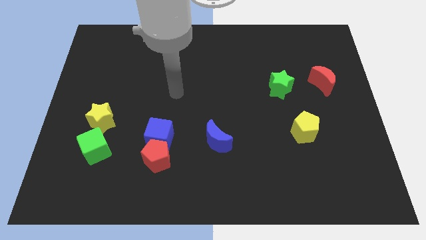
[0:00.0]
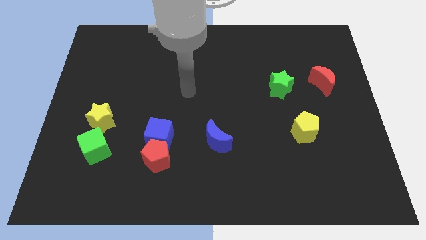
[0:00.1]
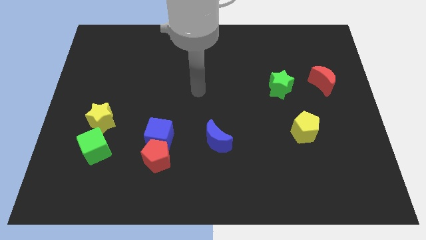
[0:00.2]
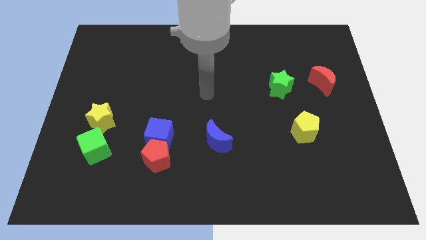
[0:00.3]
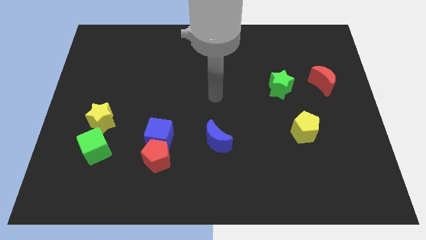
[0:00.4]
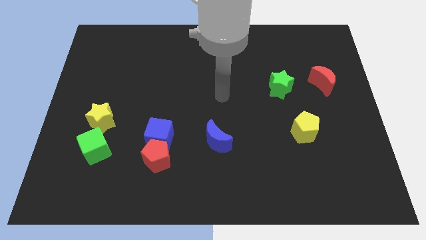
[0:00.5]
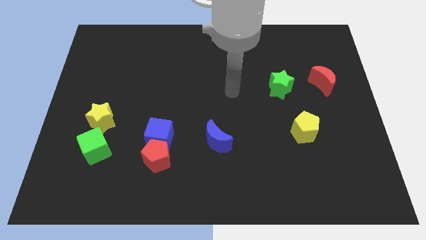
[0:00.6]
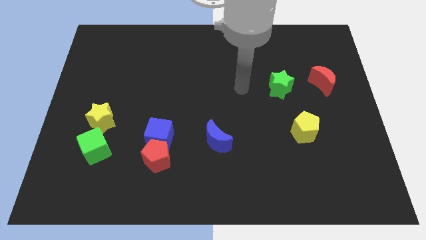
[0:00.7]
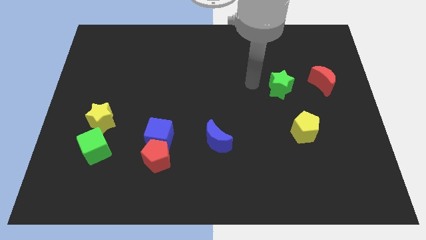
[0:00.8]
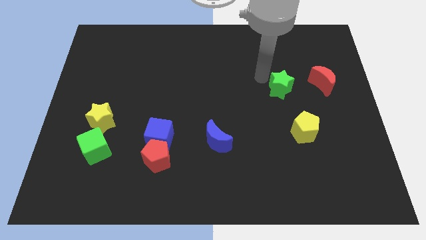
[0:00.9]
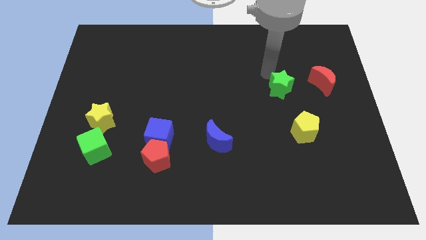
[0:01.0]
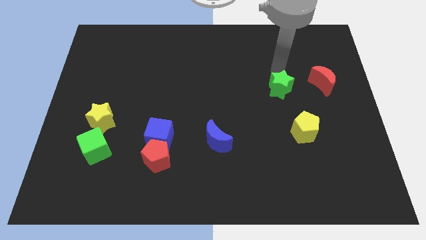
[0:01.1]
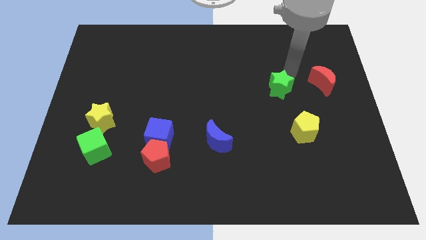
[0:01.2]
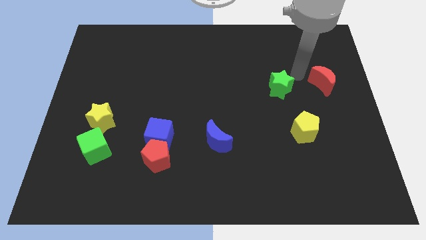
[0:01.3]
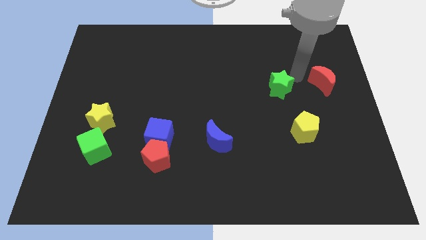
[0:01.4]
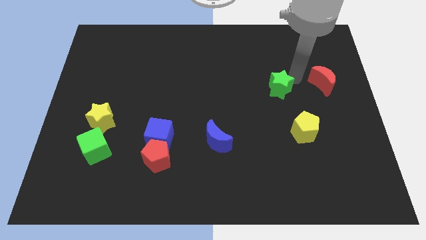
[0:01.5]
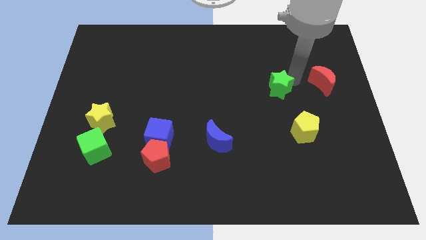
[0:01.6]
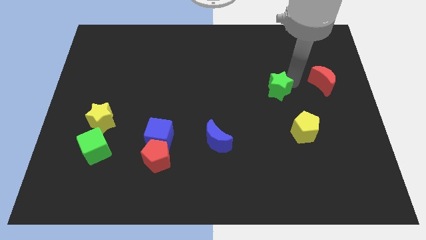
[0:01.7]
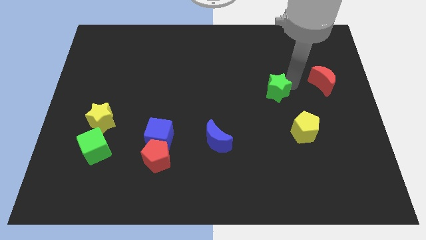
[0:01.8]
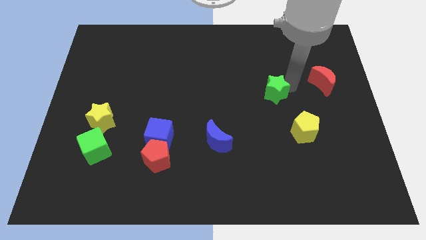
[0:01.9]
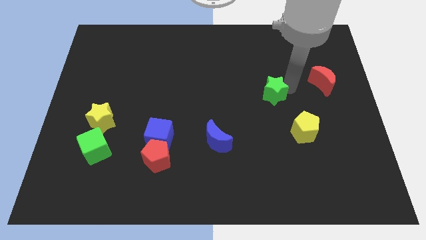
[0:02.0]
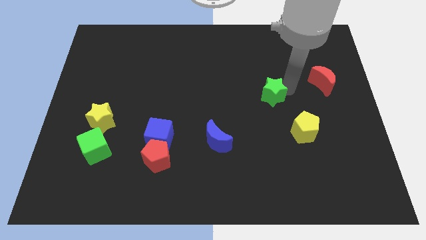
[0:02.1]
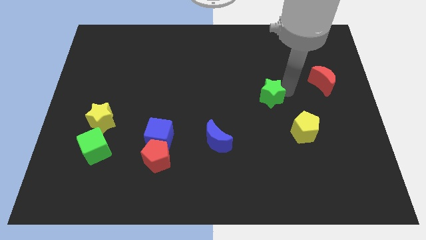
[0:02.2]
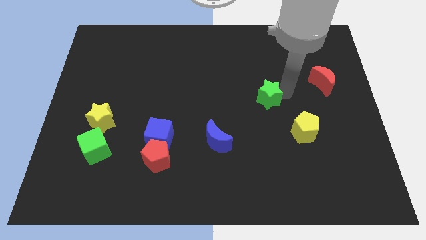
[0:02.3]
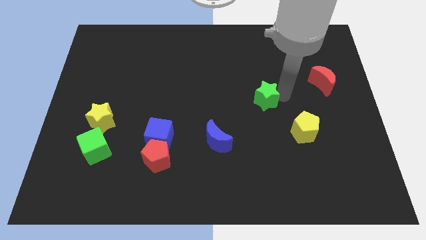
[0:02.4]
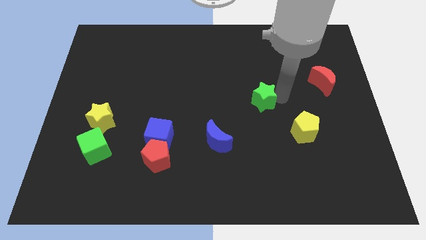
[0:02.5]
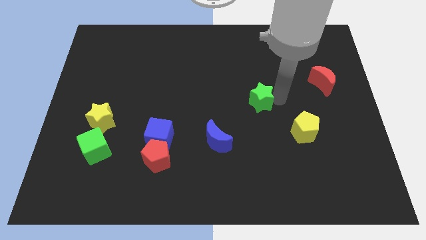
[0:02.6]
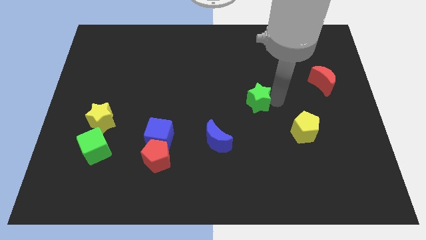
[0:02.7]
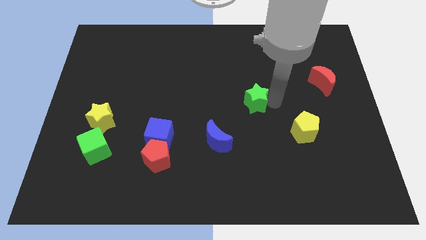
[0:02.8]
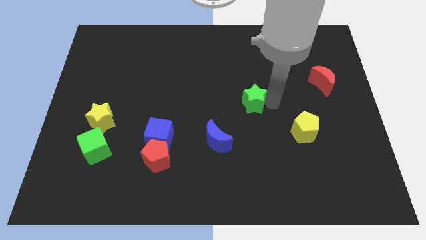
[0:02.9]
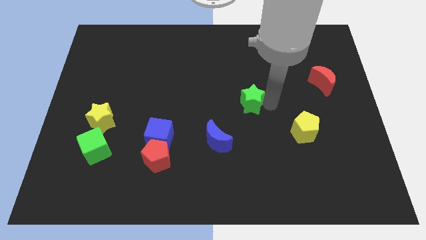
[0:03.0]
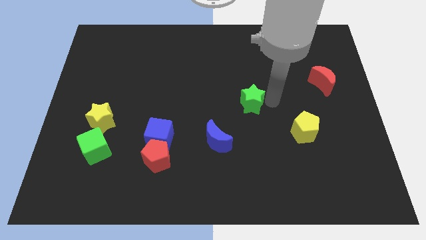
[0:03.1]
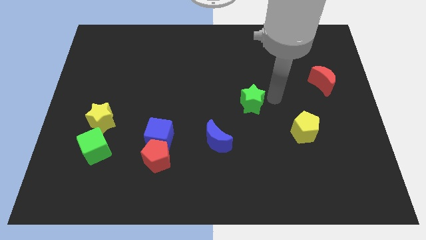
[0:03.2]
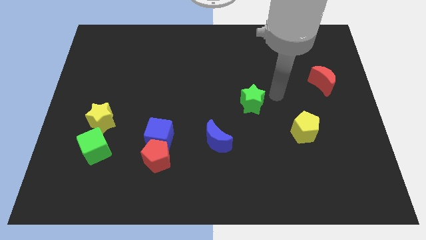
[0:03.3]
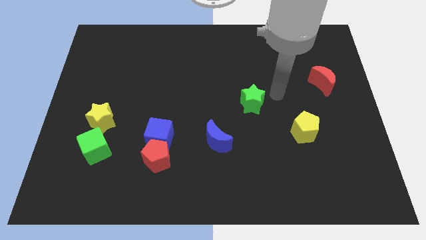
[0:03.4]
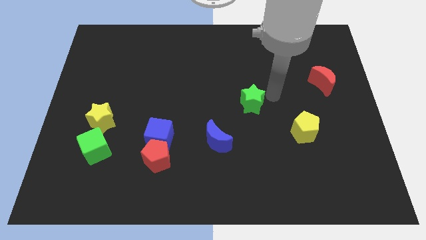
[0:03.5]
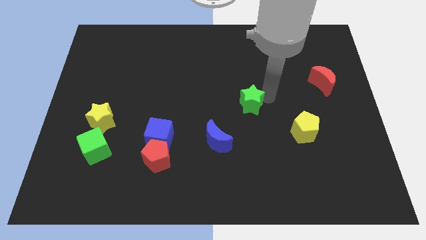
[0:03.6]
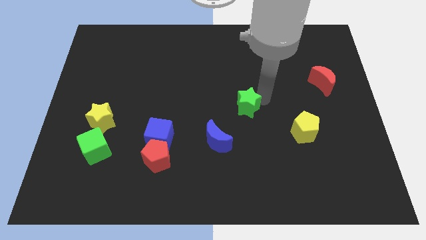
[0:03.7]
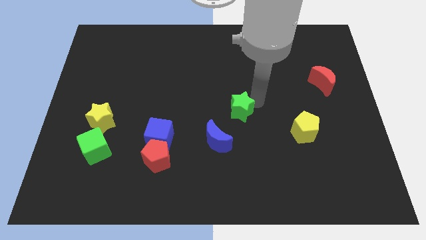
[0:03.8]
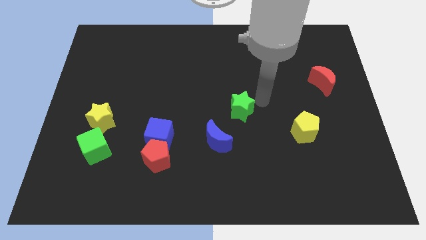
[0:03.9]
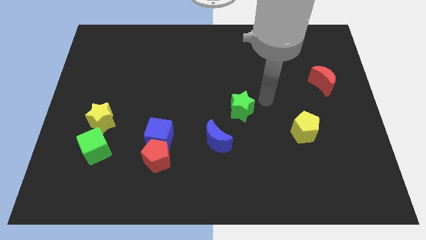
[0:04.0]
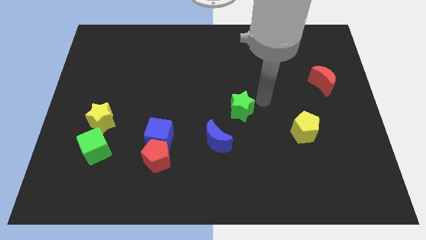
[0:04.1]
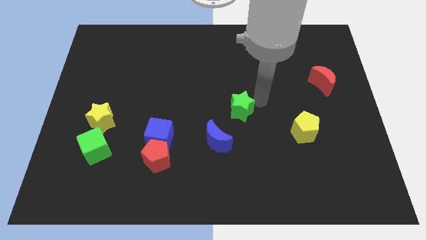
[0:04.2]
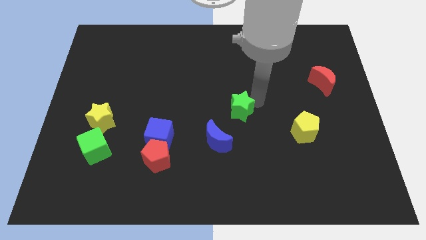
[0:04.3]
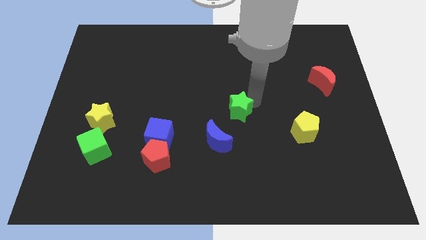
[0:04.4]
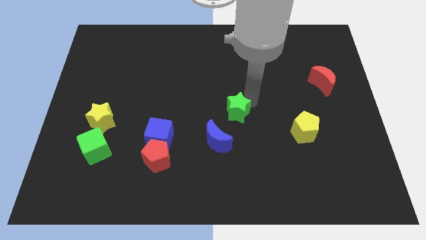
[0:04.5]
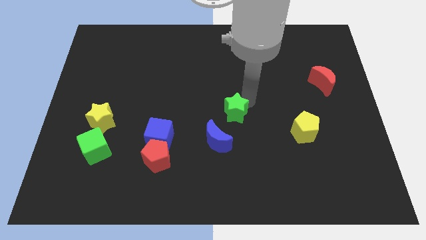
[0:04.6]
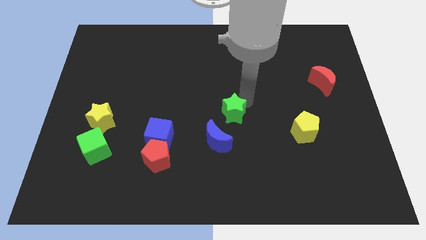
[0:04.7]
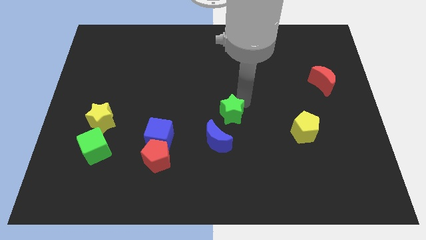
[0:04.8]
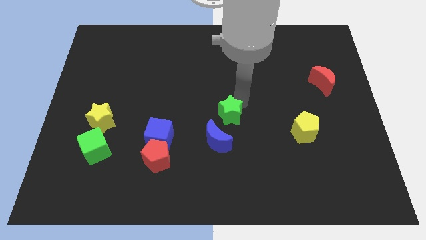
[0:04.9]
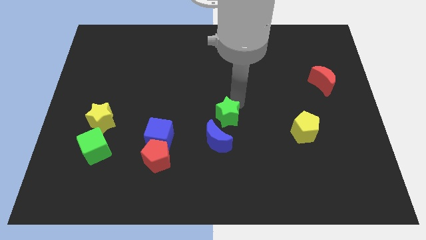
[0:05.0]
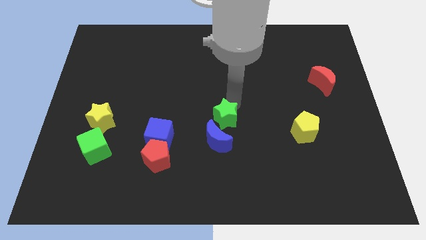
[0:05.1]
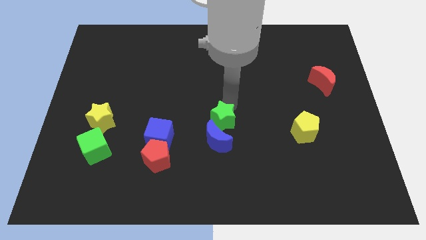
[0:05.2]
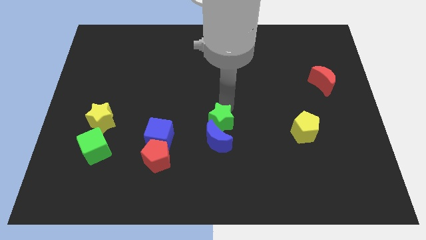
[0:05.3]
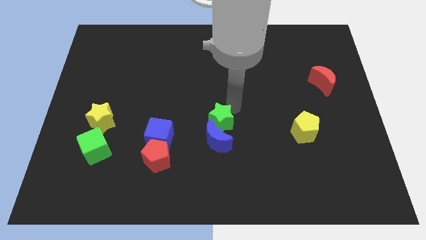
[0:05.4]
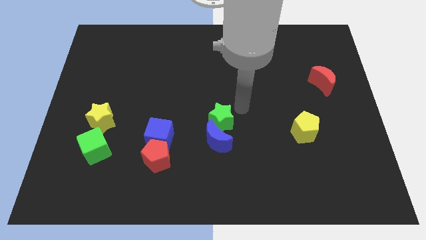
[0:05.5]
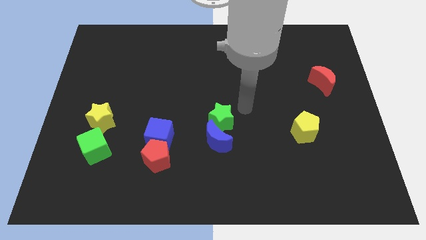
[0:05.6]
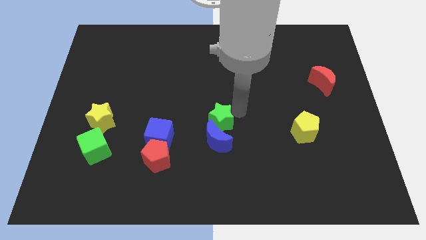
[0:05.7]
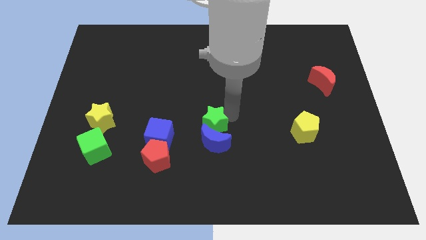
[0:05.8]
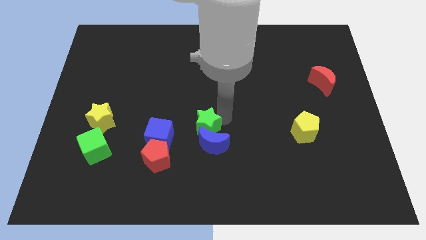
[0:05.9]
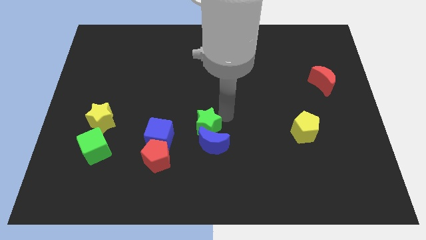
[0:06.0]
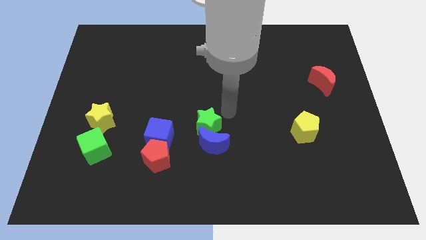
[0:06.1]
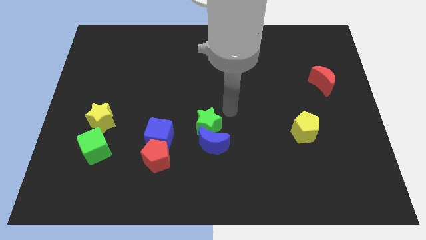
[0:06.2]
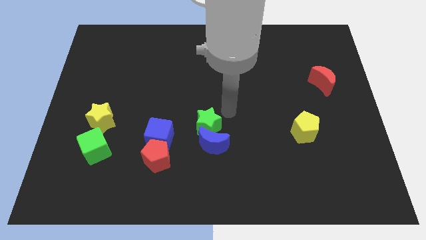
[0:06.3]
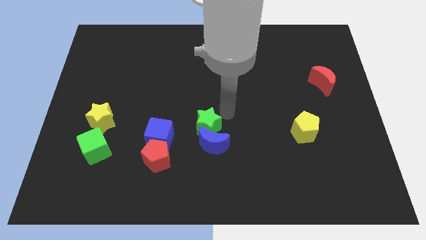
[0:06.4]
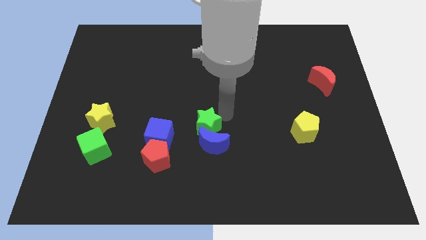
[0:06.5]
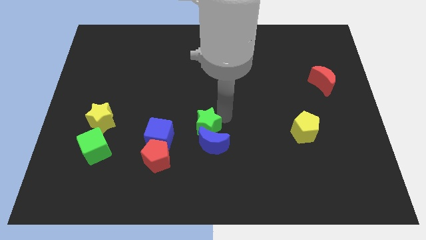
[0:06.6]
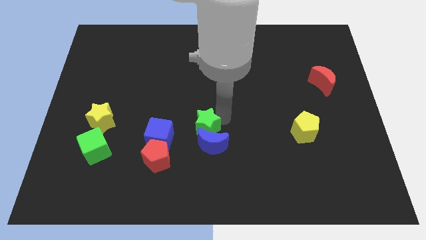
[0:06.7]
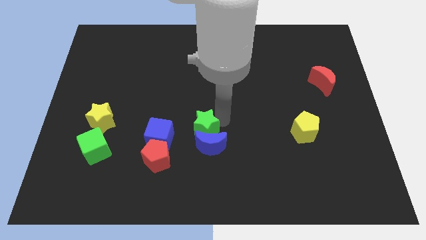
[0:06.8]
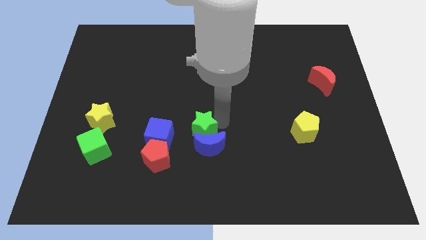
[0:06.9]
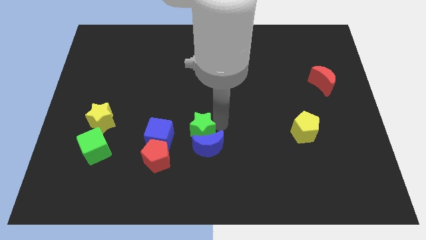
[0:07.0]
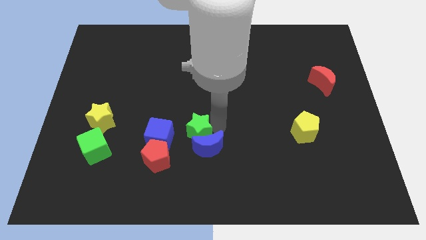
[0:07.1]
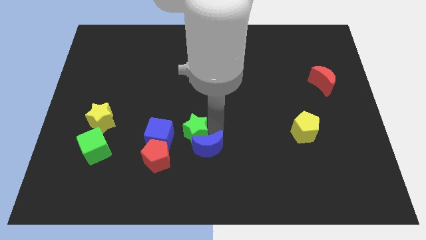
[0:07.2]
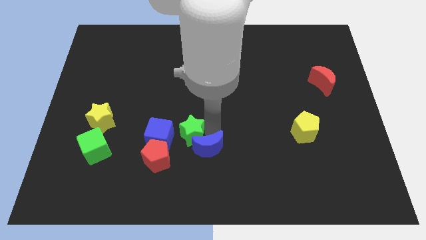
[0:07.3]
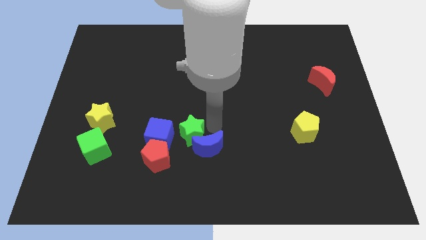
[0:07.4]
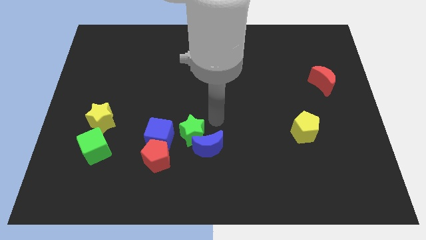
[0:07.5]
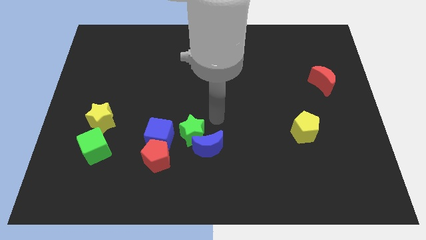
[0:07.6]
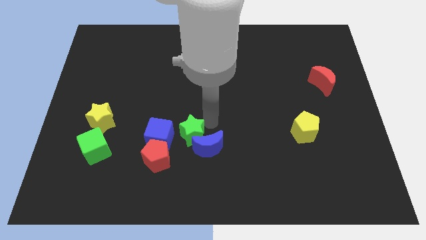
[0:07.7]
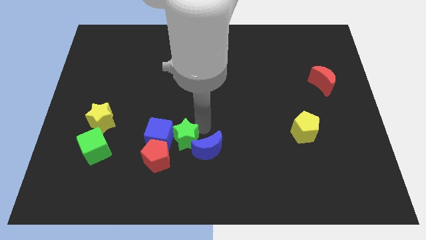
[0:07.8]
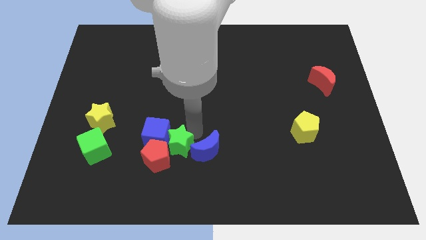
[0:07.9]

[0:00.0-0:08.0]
push the green star towards the red pentagon
